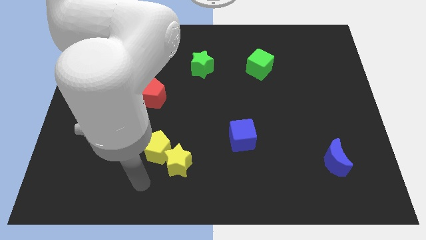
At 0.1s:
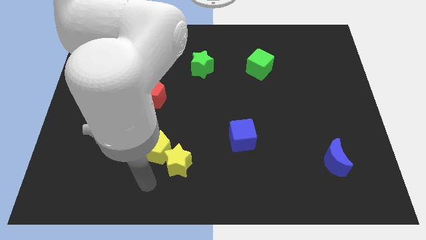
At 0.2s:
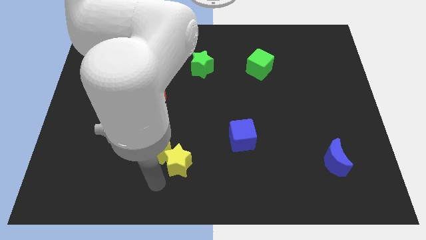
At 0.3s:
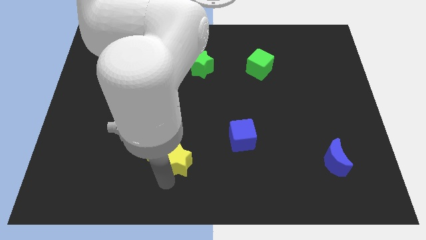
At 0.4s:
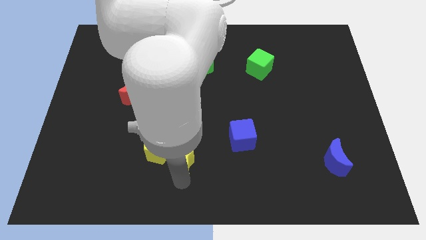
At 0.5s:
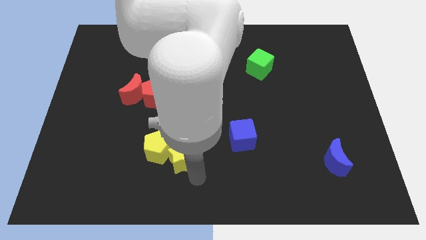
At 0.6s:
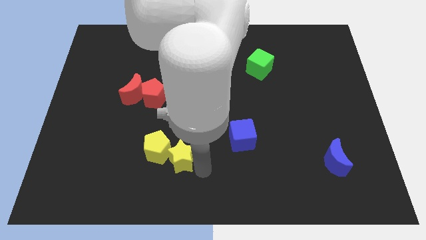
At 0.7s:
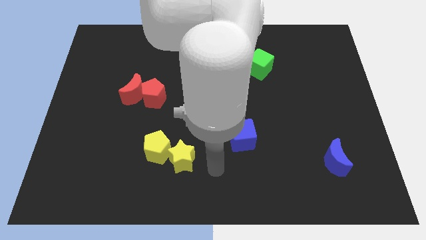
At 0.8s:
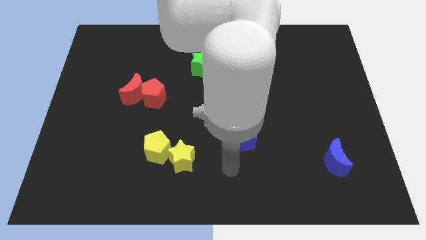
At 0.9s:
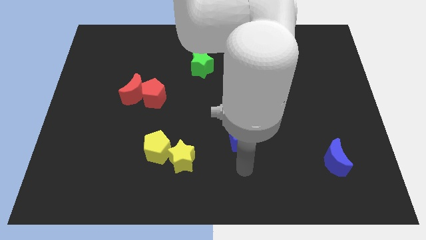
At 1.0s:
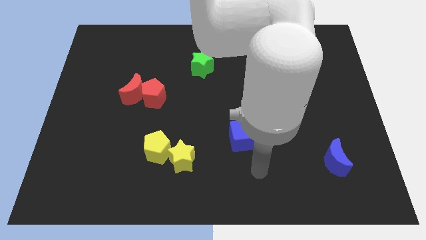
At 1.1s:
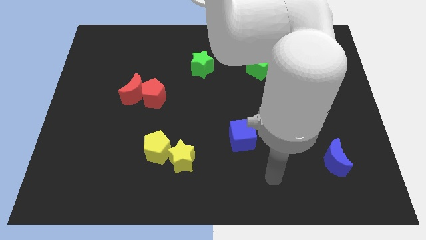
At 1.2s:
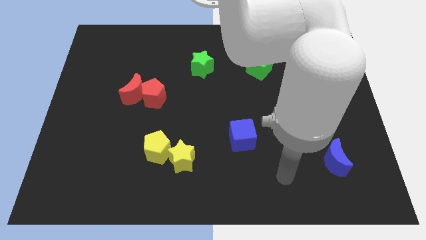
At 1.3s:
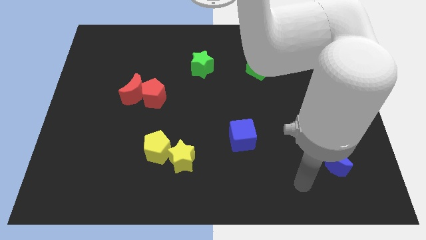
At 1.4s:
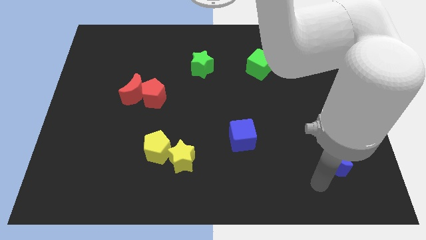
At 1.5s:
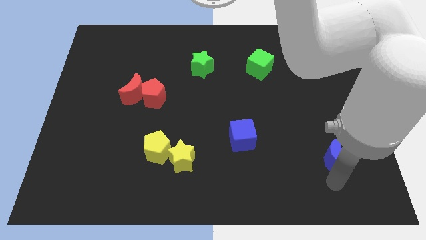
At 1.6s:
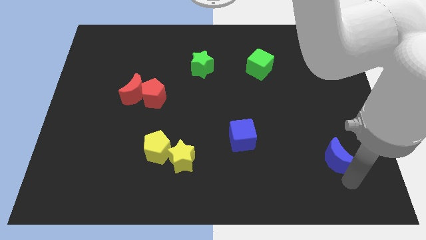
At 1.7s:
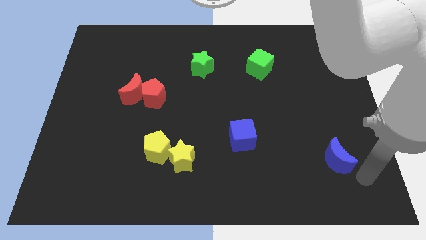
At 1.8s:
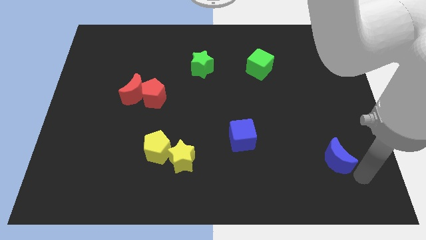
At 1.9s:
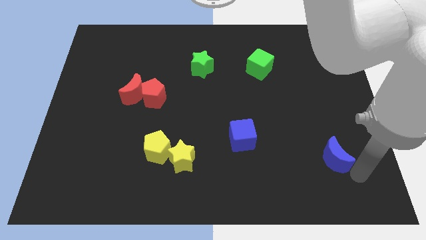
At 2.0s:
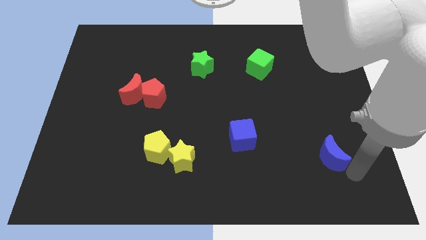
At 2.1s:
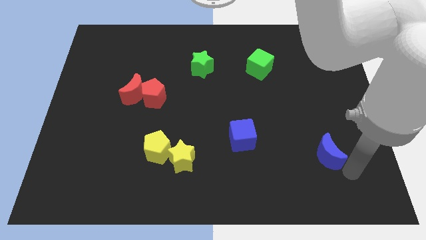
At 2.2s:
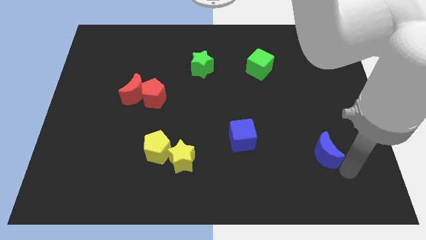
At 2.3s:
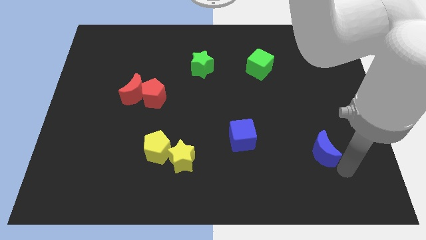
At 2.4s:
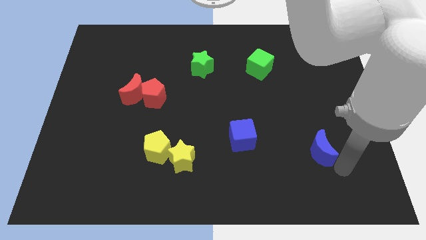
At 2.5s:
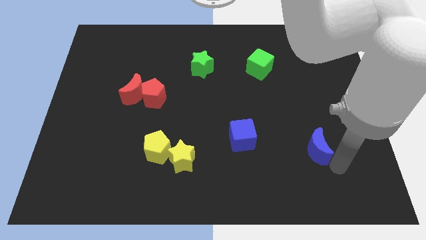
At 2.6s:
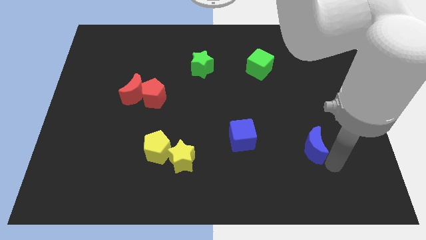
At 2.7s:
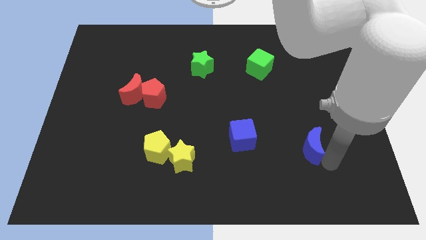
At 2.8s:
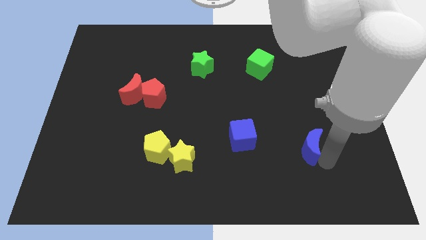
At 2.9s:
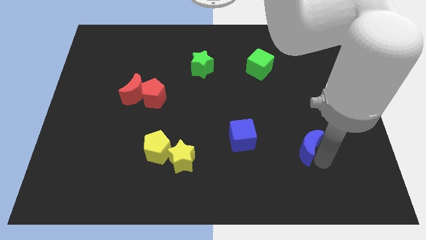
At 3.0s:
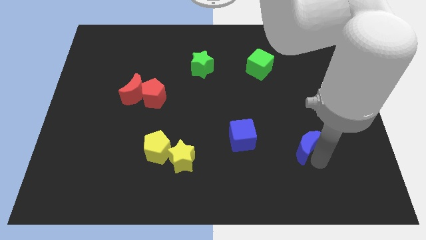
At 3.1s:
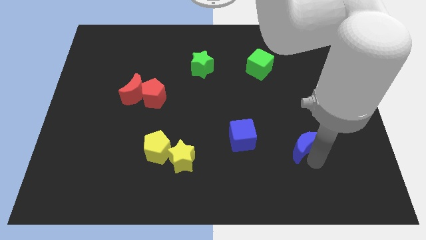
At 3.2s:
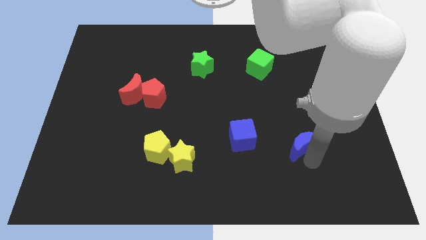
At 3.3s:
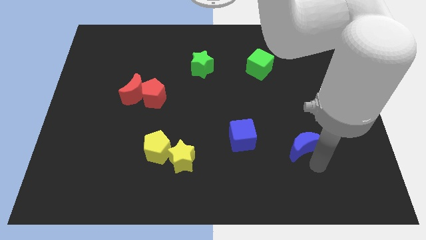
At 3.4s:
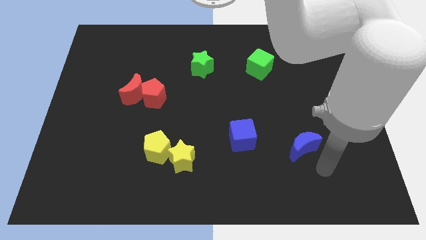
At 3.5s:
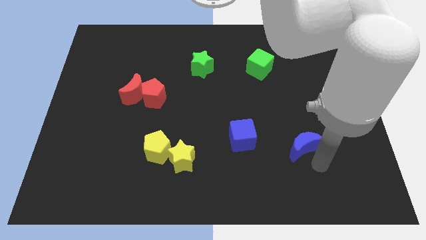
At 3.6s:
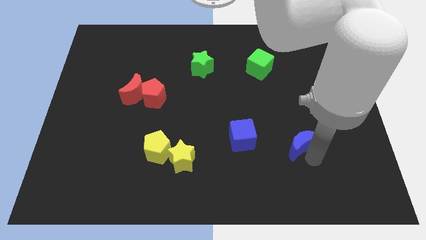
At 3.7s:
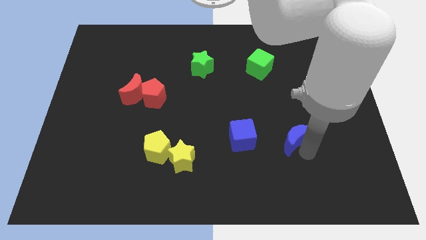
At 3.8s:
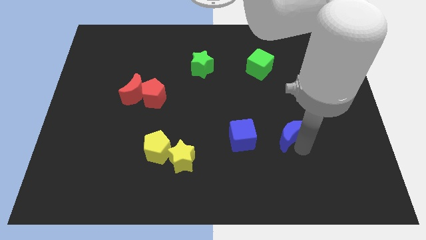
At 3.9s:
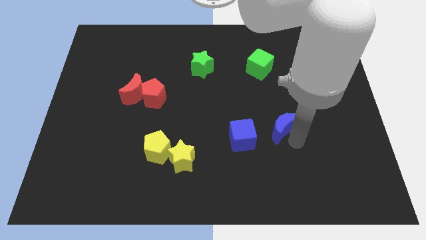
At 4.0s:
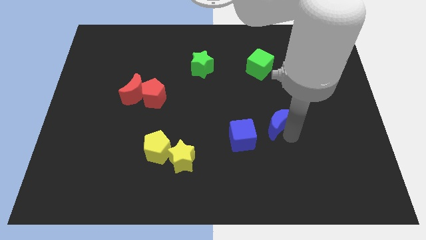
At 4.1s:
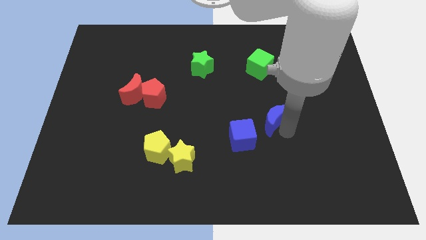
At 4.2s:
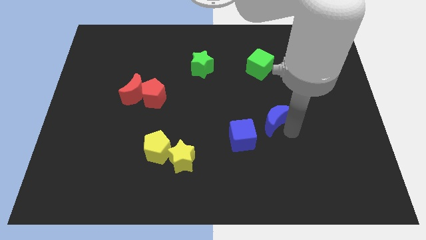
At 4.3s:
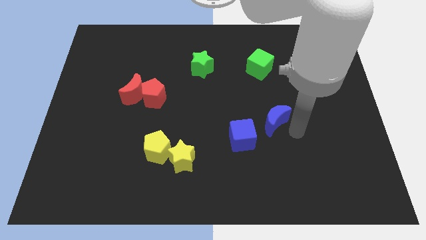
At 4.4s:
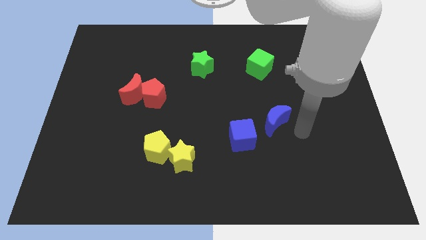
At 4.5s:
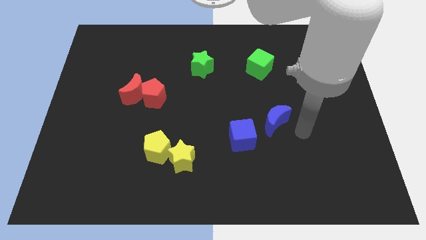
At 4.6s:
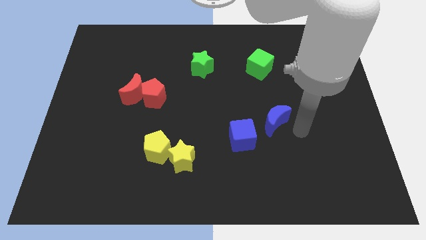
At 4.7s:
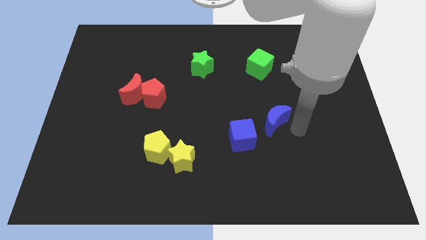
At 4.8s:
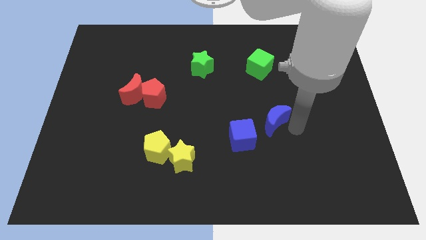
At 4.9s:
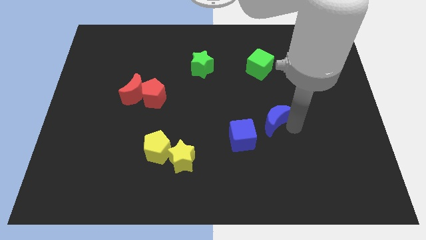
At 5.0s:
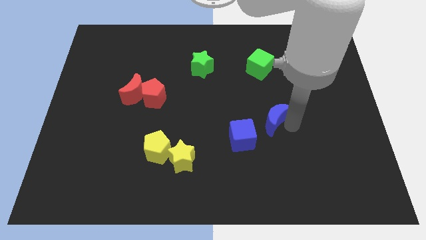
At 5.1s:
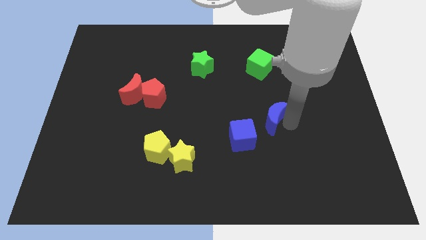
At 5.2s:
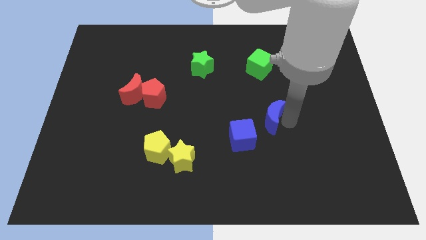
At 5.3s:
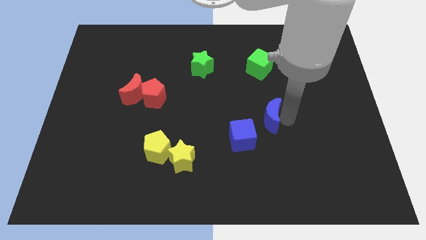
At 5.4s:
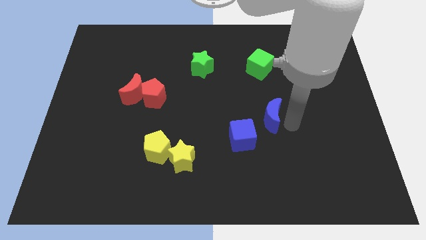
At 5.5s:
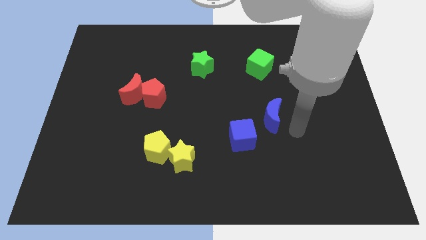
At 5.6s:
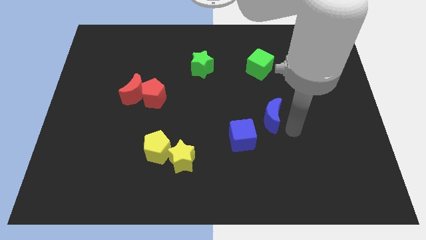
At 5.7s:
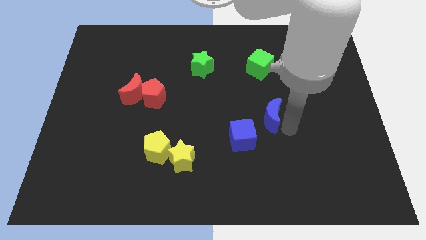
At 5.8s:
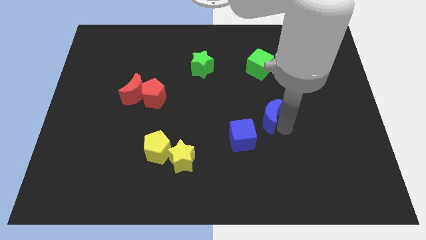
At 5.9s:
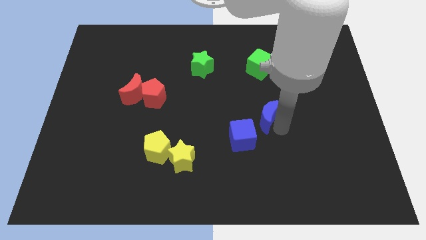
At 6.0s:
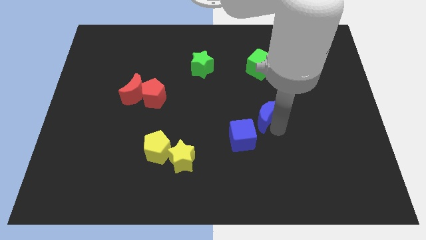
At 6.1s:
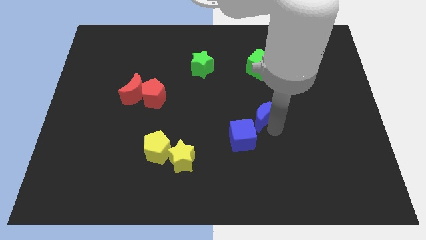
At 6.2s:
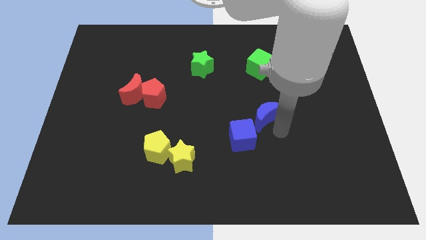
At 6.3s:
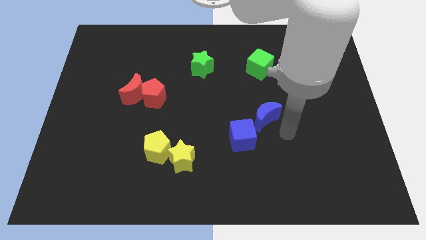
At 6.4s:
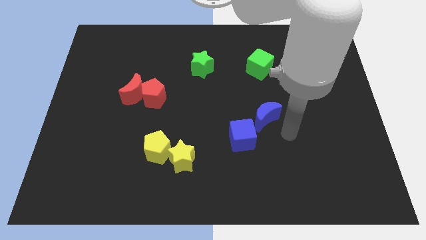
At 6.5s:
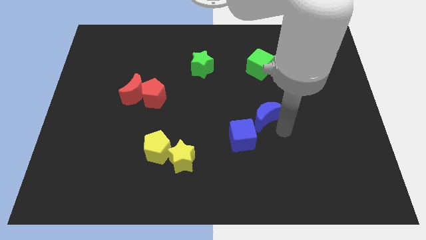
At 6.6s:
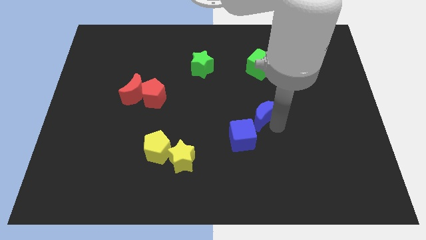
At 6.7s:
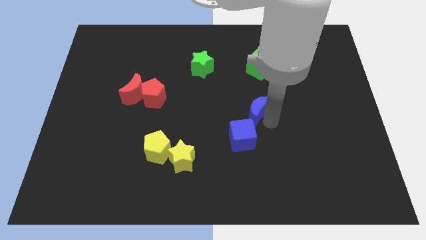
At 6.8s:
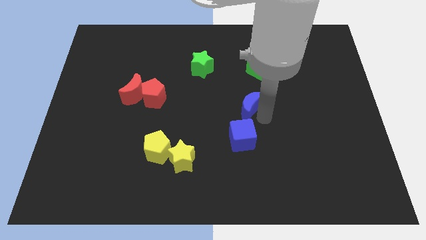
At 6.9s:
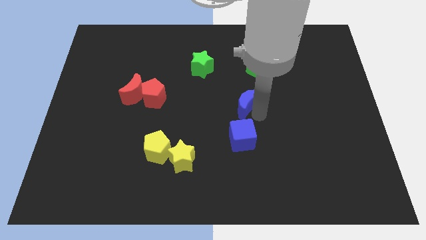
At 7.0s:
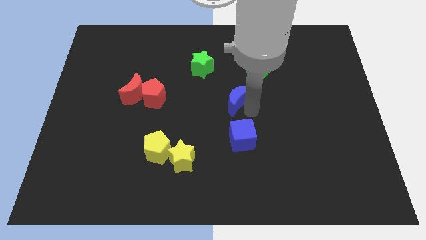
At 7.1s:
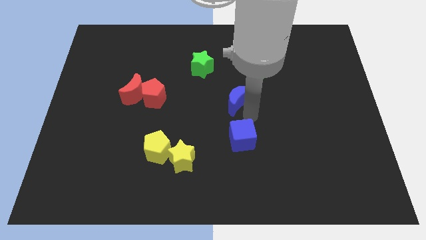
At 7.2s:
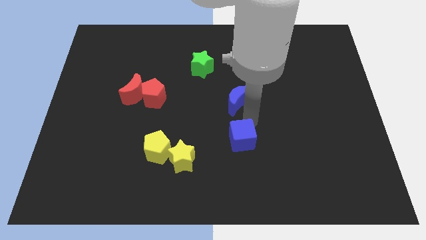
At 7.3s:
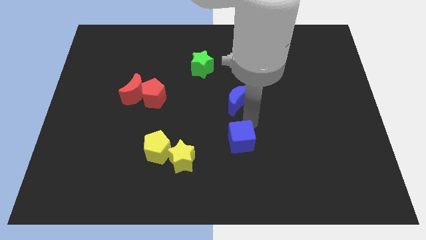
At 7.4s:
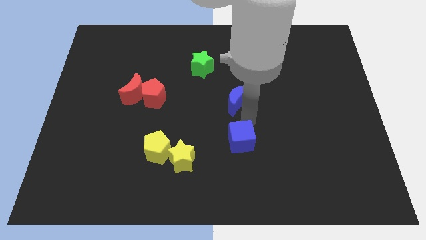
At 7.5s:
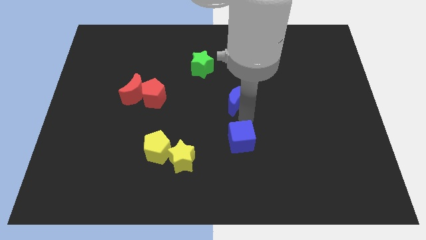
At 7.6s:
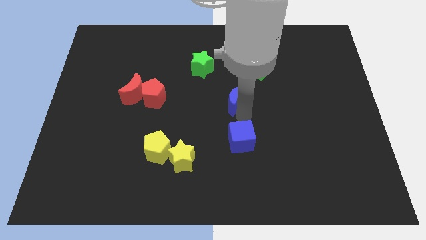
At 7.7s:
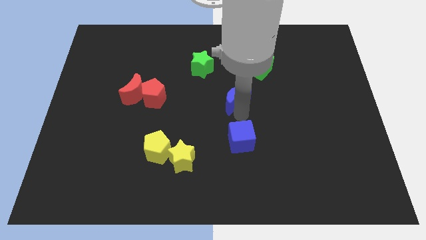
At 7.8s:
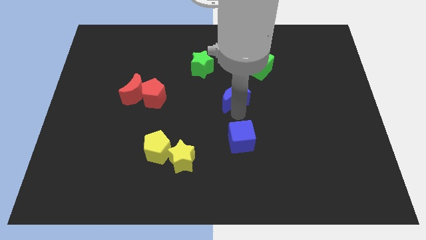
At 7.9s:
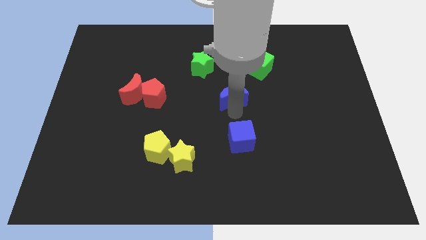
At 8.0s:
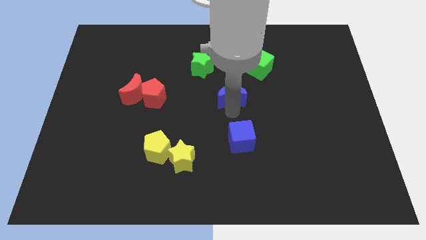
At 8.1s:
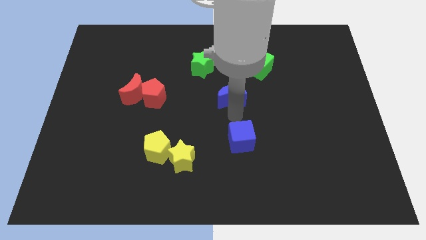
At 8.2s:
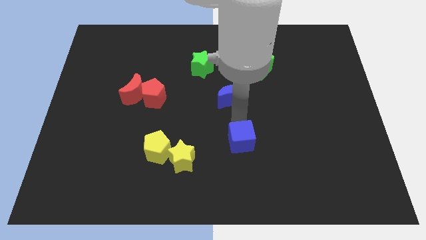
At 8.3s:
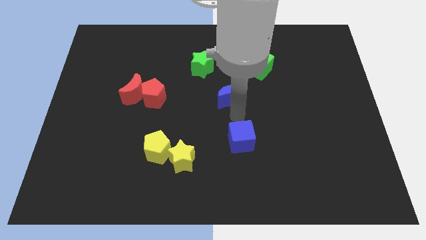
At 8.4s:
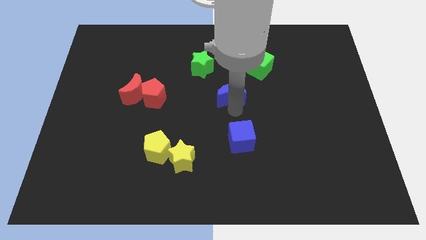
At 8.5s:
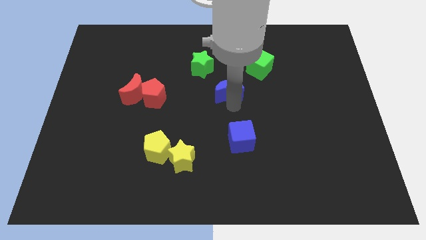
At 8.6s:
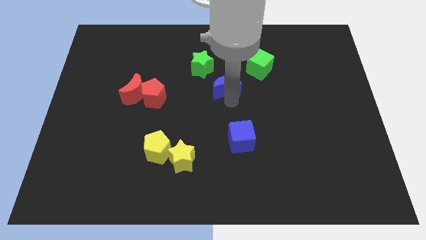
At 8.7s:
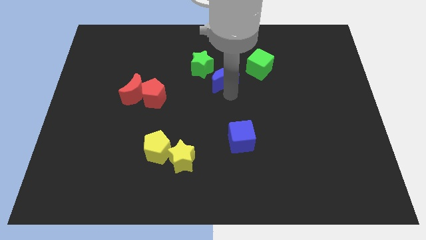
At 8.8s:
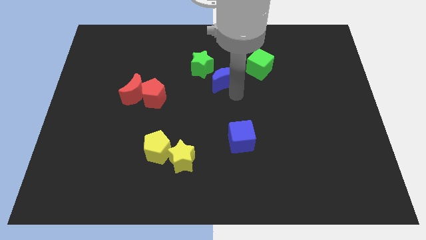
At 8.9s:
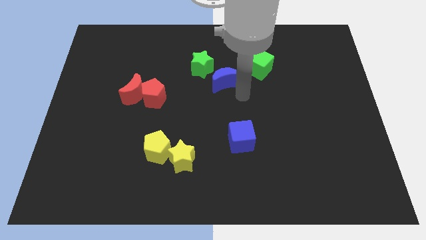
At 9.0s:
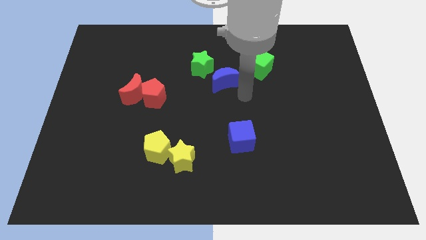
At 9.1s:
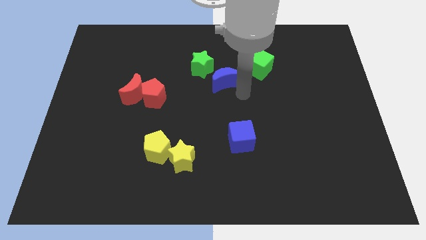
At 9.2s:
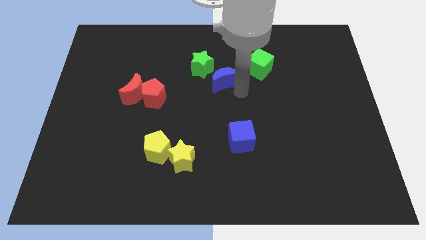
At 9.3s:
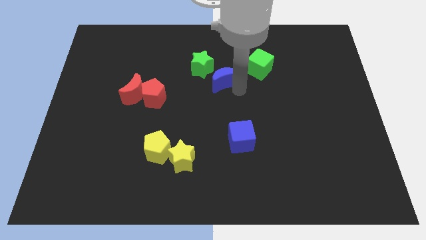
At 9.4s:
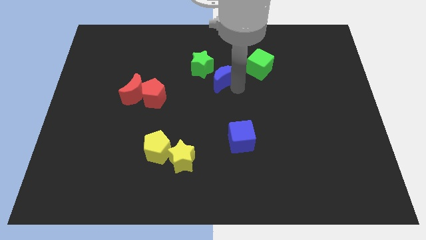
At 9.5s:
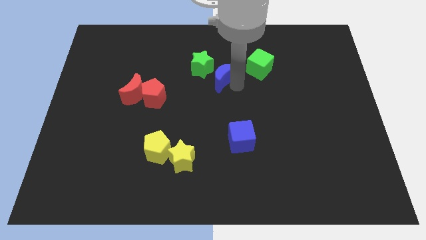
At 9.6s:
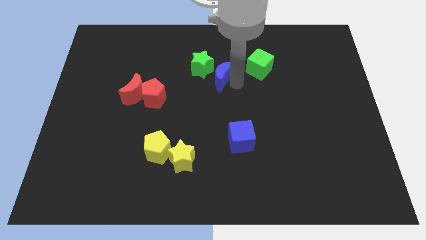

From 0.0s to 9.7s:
move the blue moon next to the green star
